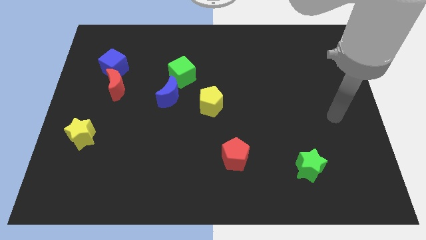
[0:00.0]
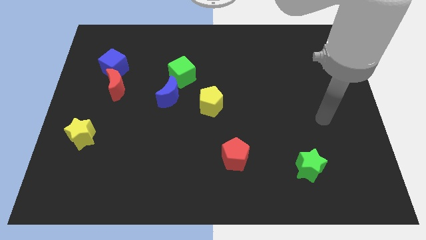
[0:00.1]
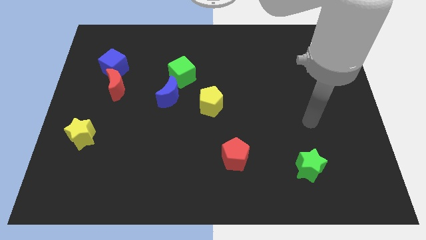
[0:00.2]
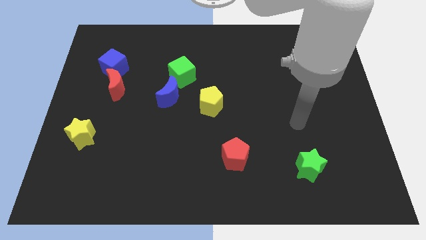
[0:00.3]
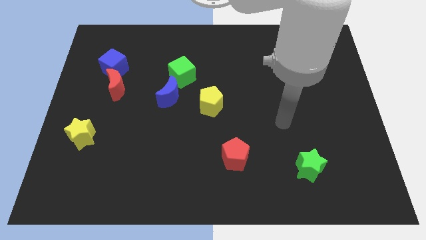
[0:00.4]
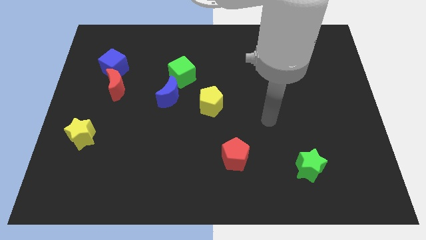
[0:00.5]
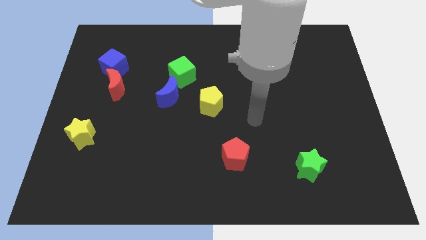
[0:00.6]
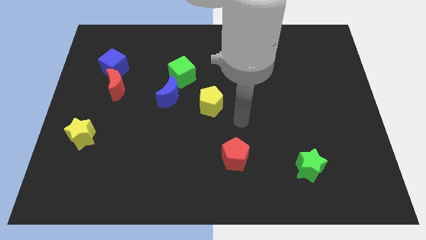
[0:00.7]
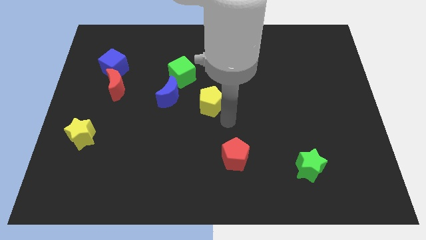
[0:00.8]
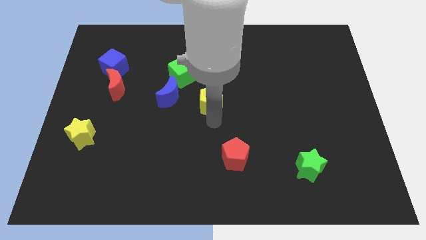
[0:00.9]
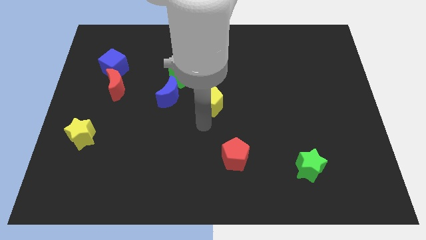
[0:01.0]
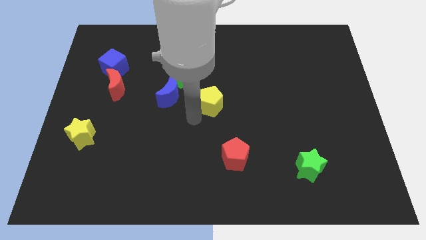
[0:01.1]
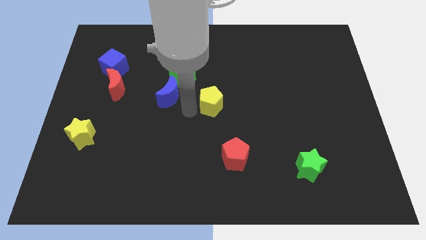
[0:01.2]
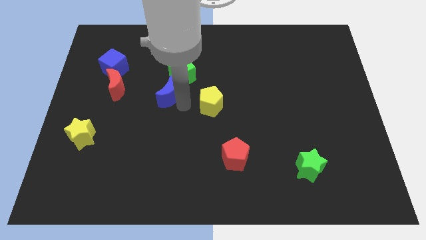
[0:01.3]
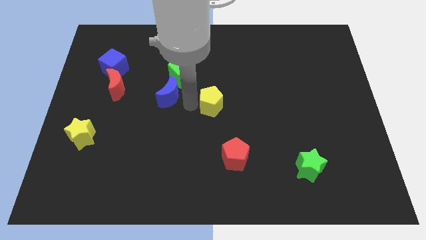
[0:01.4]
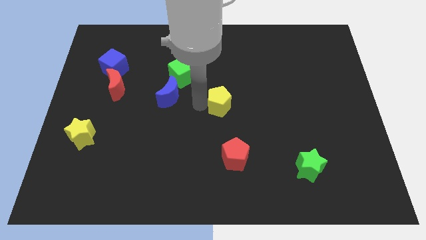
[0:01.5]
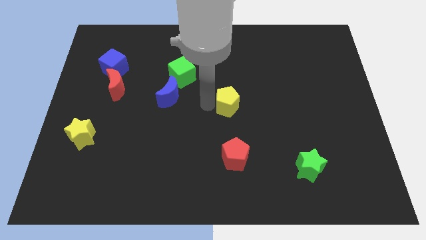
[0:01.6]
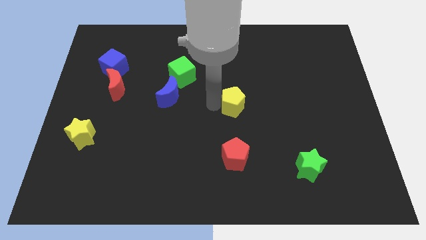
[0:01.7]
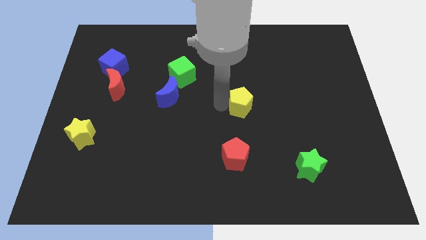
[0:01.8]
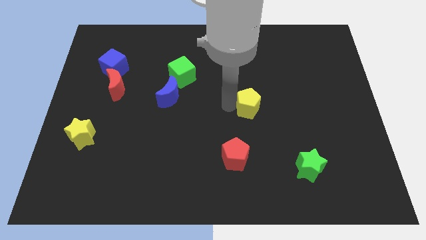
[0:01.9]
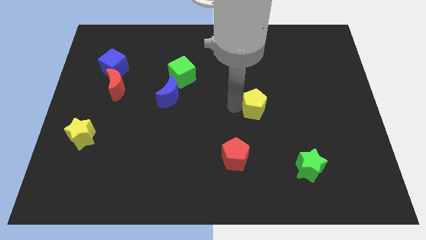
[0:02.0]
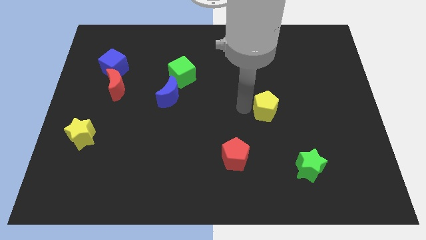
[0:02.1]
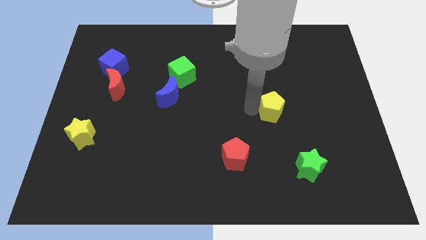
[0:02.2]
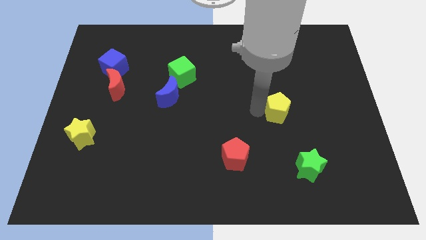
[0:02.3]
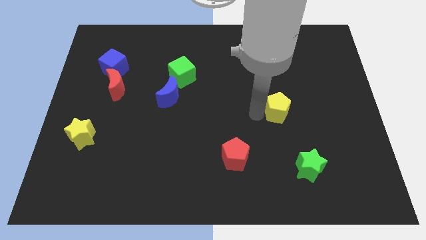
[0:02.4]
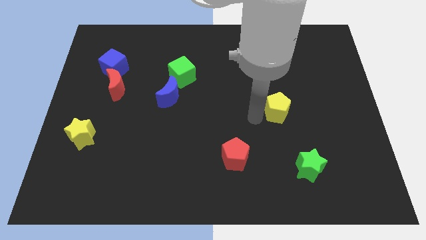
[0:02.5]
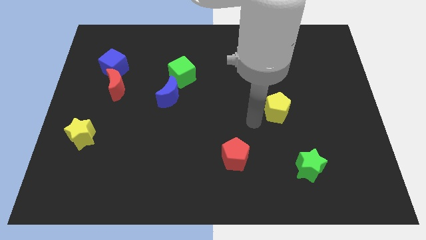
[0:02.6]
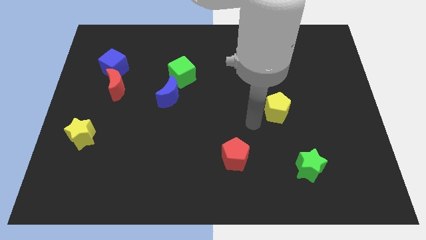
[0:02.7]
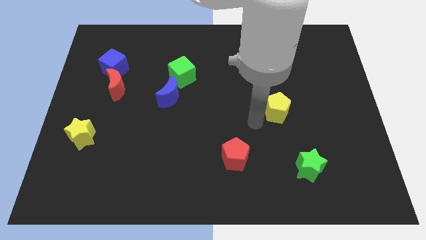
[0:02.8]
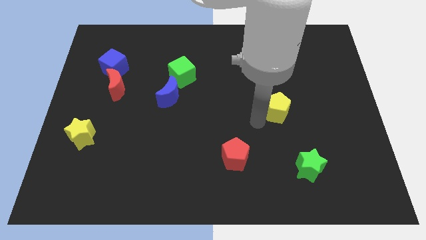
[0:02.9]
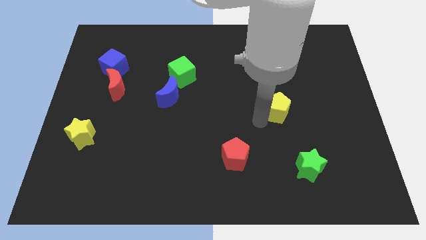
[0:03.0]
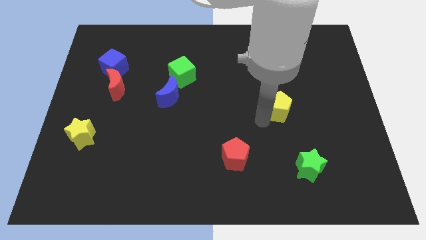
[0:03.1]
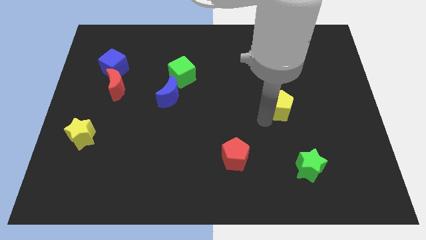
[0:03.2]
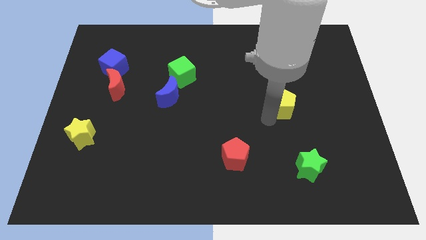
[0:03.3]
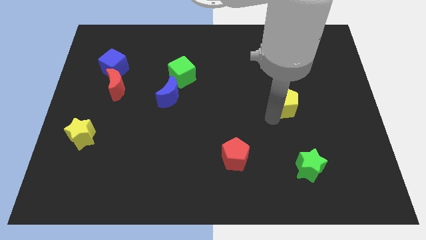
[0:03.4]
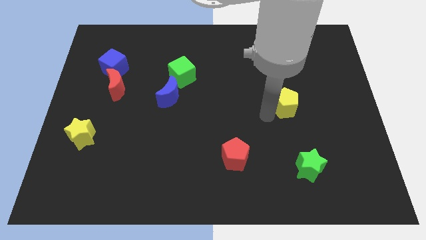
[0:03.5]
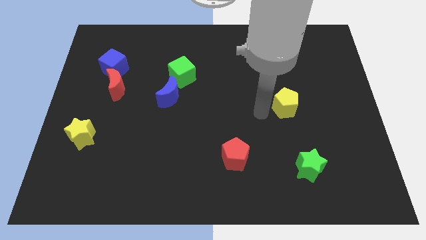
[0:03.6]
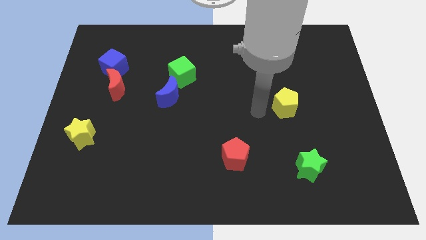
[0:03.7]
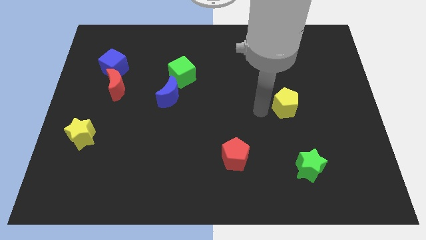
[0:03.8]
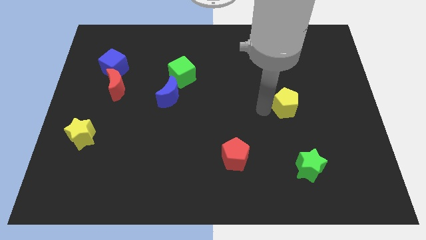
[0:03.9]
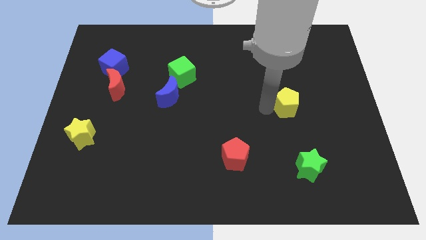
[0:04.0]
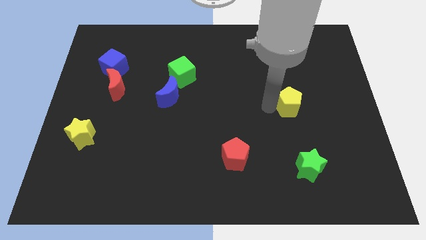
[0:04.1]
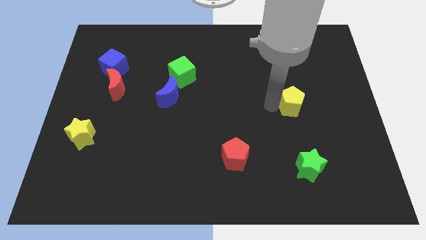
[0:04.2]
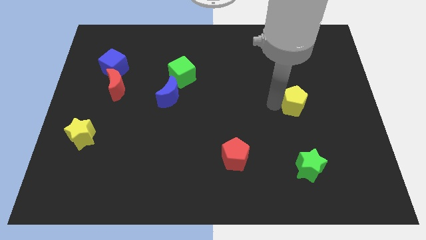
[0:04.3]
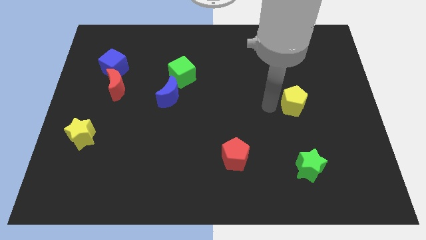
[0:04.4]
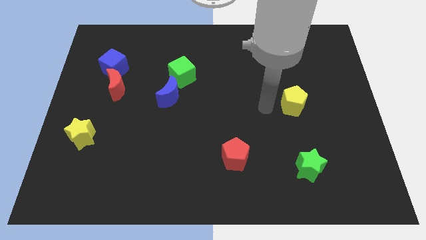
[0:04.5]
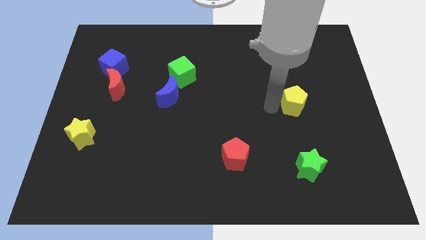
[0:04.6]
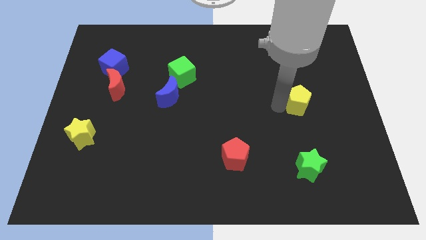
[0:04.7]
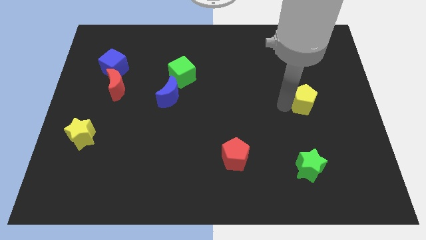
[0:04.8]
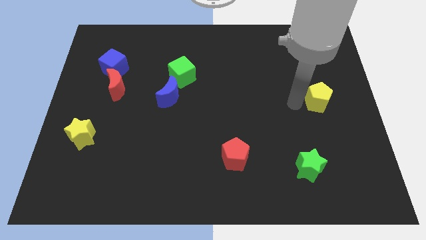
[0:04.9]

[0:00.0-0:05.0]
move the yellow pentagon to the right side of the board

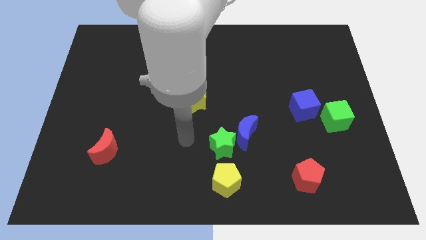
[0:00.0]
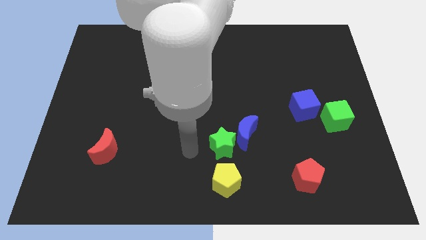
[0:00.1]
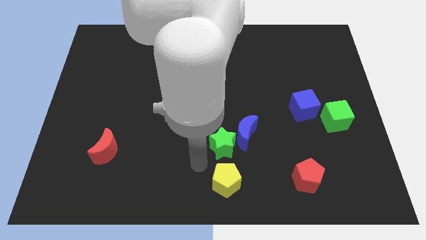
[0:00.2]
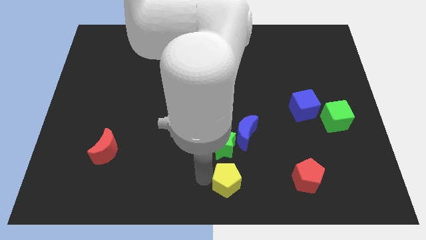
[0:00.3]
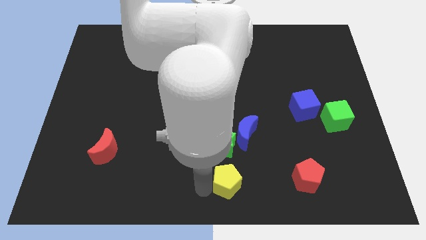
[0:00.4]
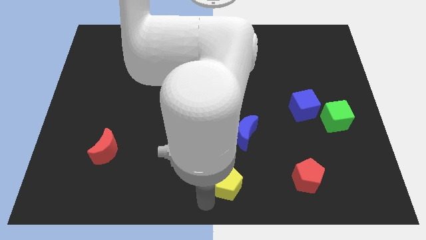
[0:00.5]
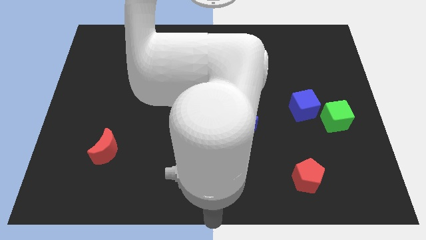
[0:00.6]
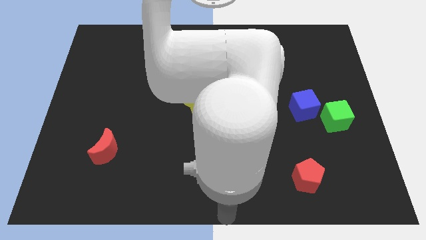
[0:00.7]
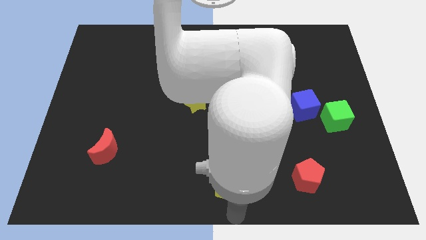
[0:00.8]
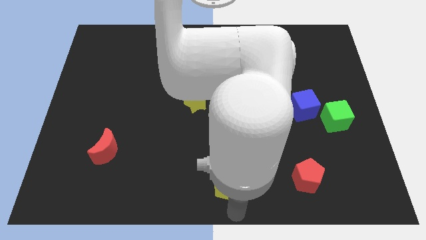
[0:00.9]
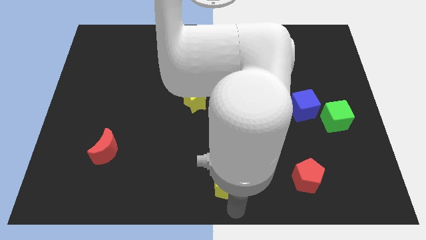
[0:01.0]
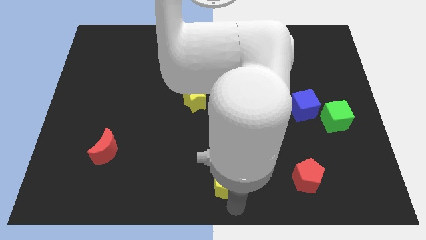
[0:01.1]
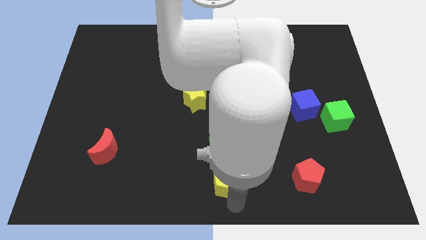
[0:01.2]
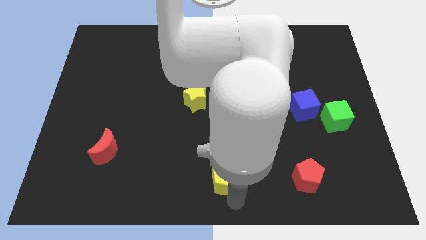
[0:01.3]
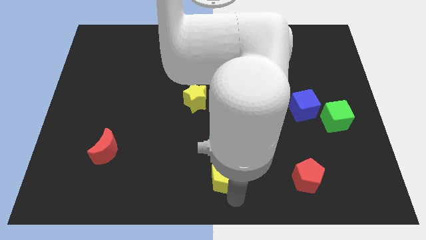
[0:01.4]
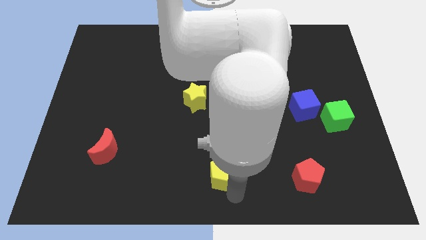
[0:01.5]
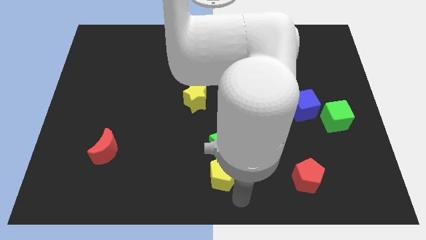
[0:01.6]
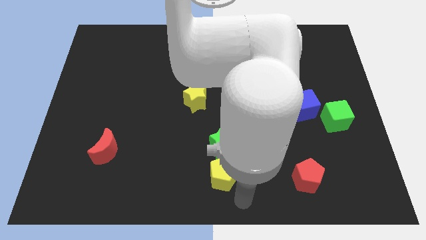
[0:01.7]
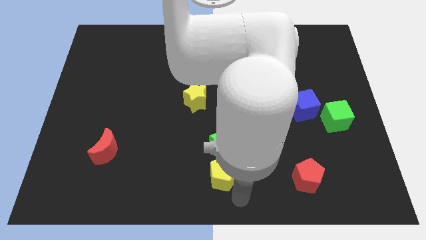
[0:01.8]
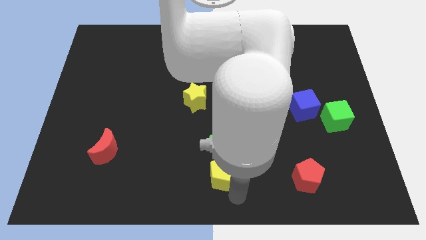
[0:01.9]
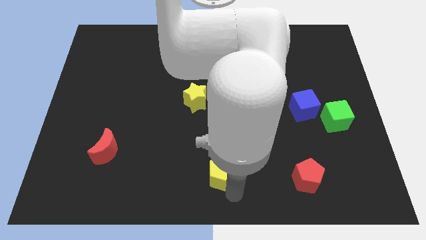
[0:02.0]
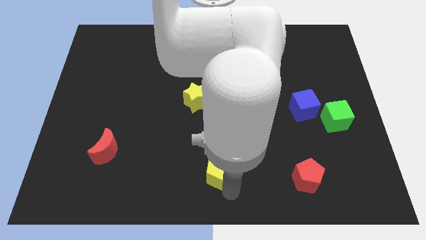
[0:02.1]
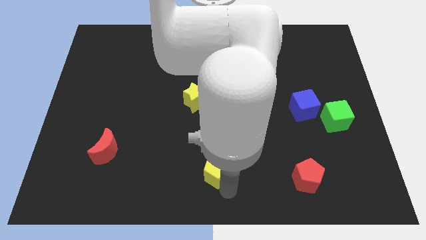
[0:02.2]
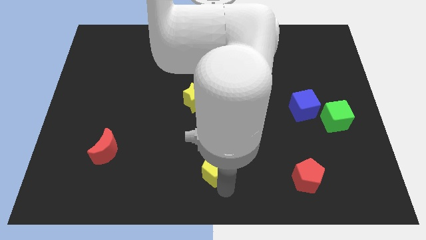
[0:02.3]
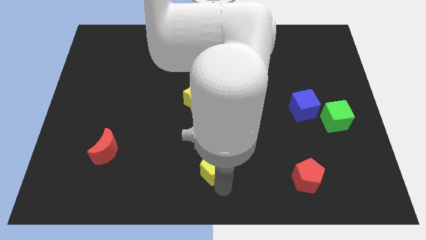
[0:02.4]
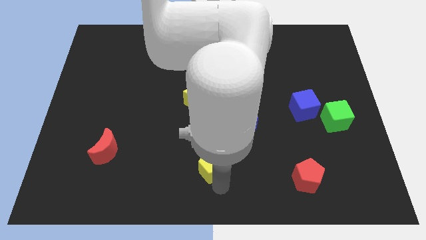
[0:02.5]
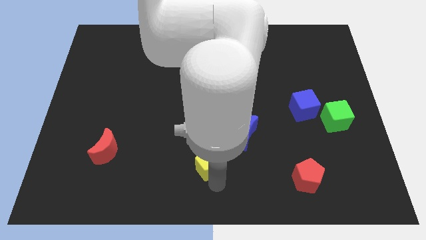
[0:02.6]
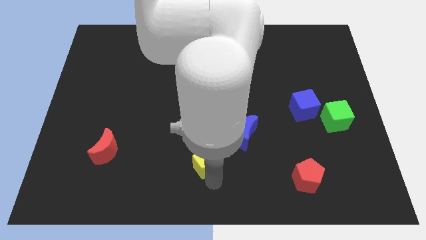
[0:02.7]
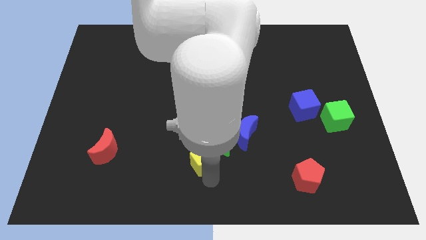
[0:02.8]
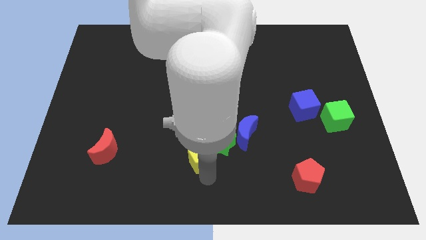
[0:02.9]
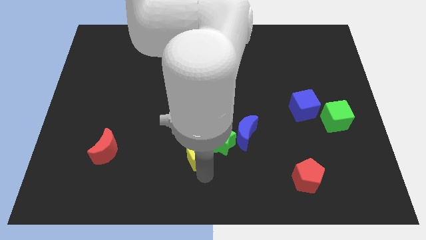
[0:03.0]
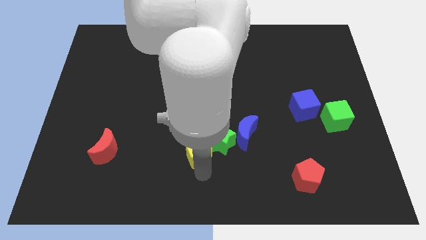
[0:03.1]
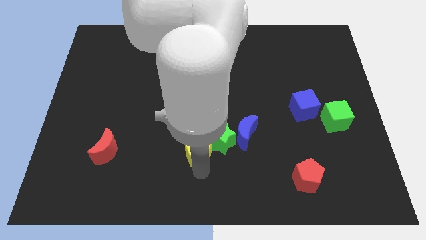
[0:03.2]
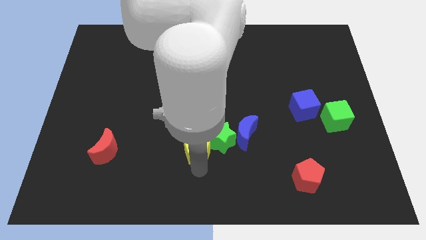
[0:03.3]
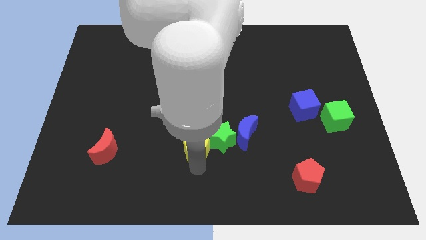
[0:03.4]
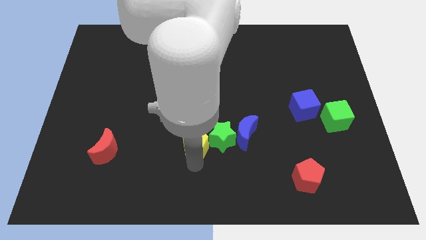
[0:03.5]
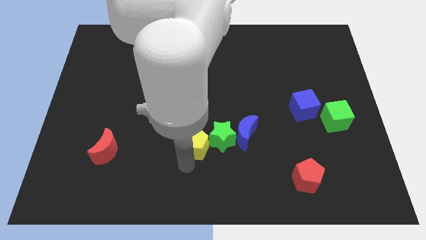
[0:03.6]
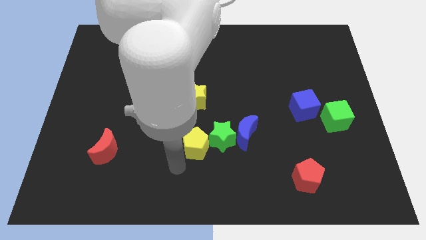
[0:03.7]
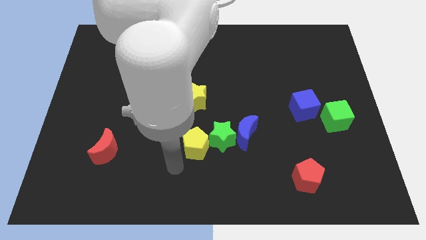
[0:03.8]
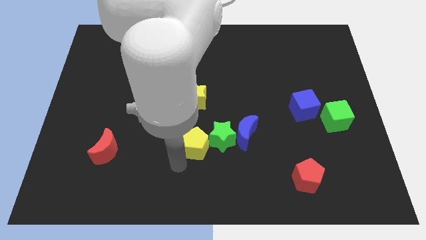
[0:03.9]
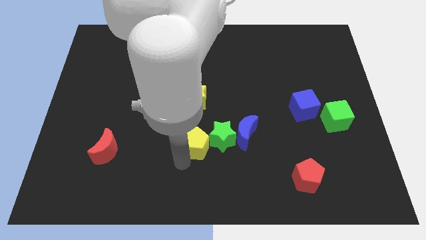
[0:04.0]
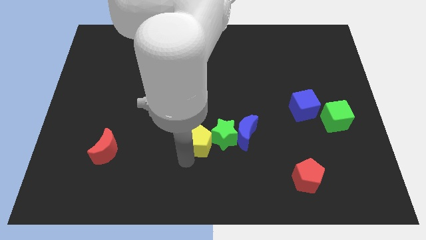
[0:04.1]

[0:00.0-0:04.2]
push the yellow pentagon to the center of the board
